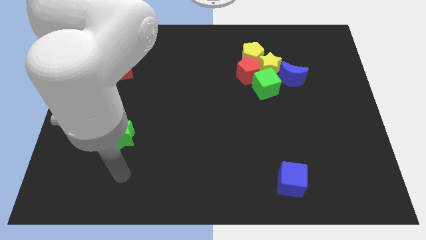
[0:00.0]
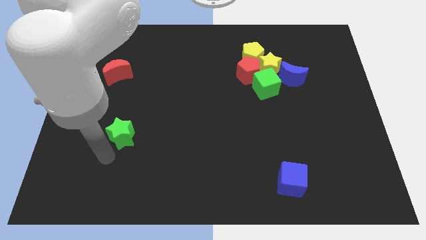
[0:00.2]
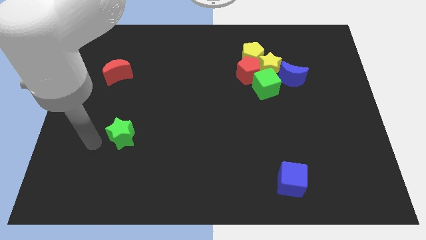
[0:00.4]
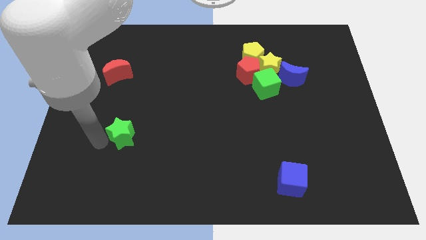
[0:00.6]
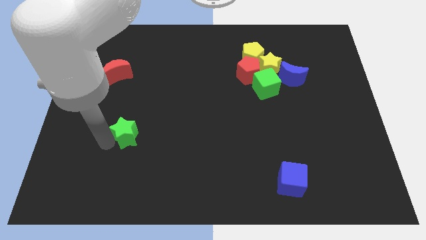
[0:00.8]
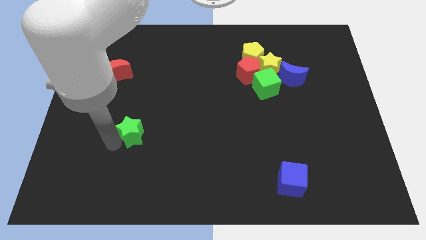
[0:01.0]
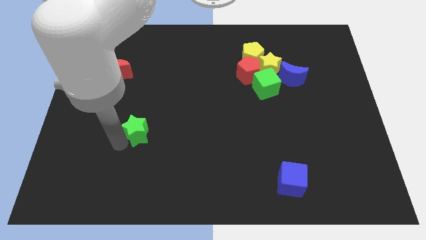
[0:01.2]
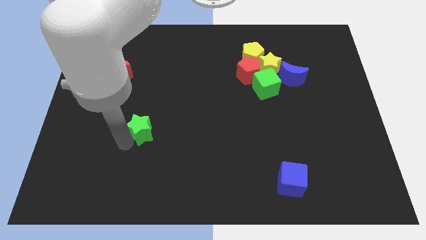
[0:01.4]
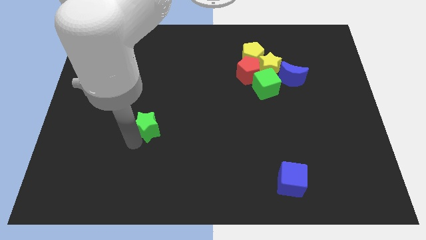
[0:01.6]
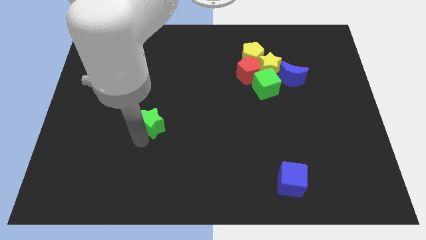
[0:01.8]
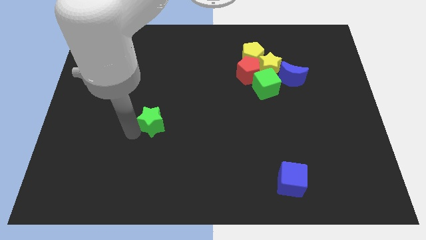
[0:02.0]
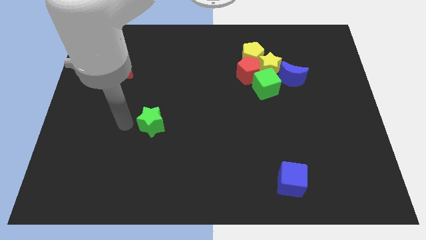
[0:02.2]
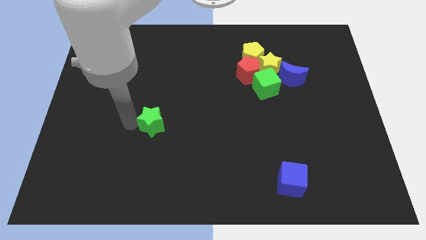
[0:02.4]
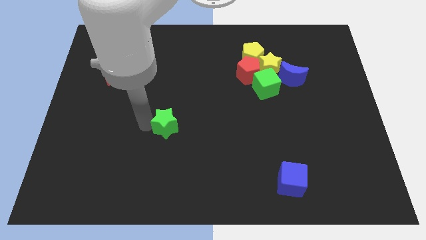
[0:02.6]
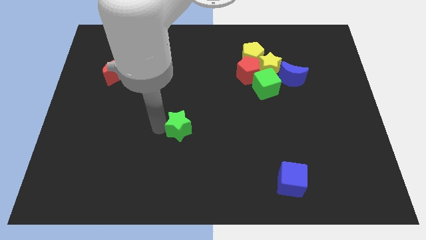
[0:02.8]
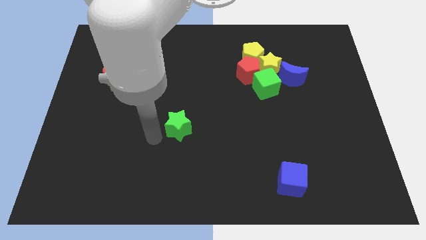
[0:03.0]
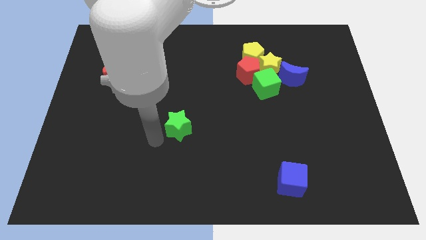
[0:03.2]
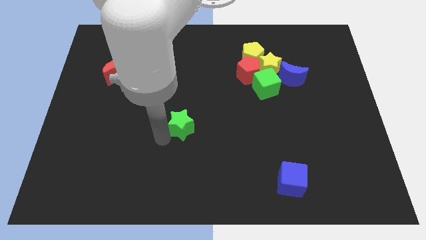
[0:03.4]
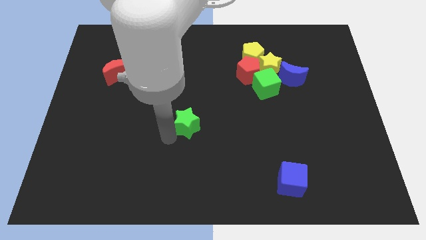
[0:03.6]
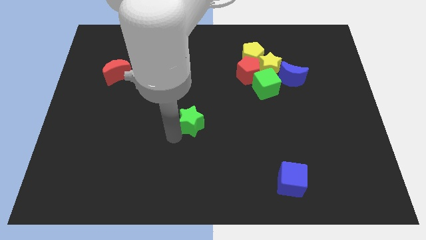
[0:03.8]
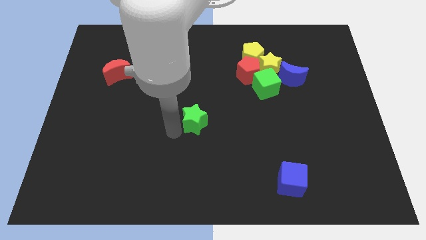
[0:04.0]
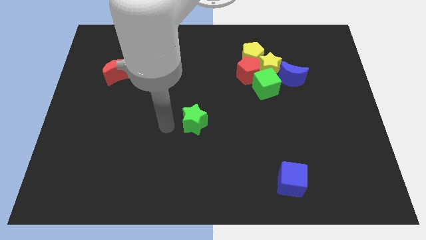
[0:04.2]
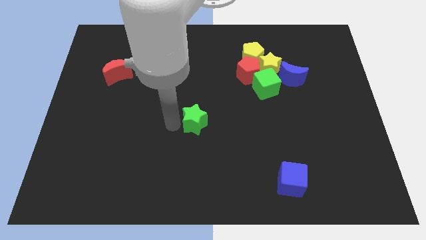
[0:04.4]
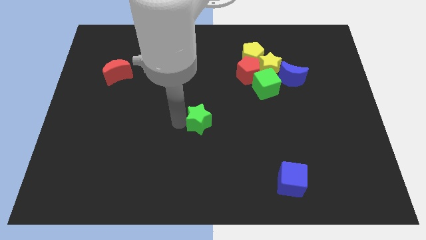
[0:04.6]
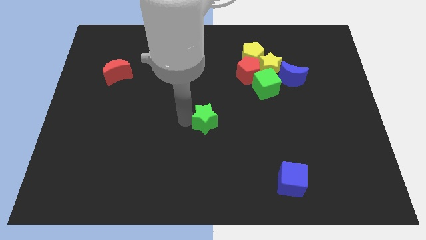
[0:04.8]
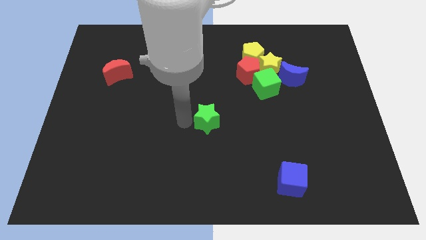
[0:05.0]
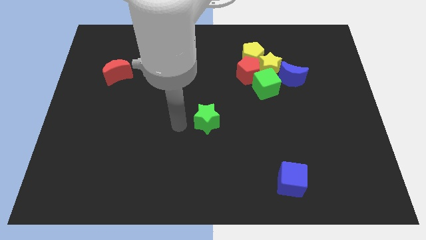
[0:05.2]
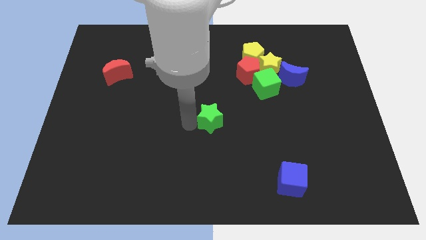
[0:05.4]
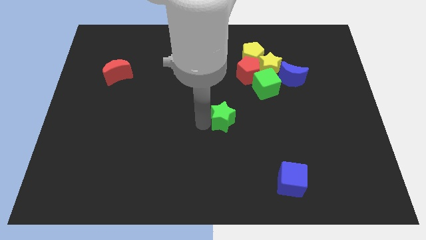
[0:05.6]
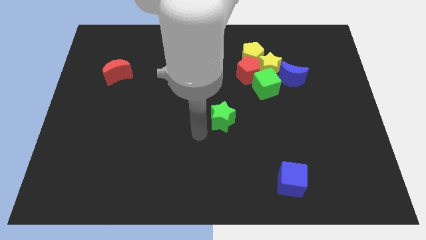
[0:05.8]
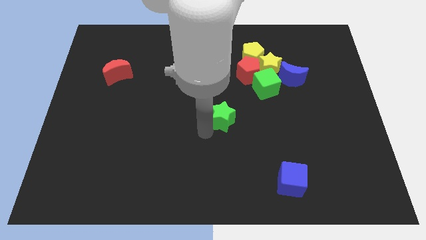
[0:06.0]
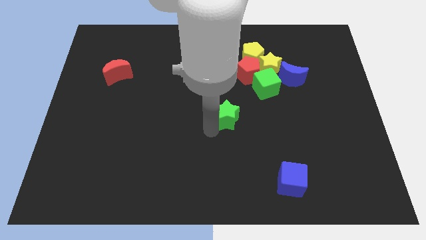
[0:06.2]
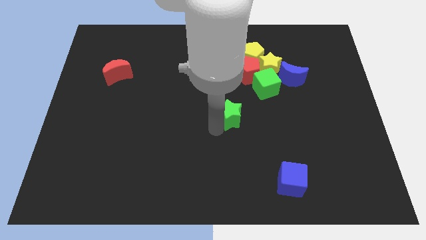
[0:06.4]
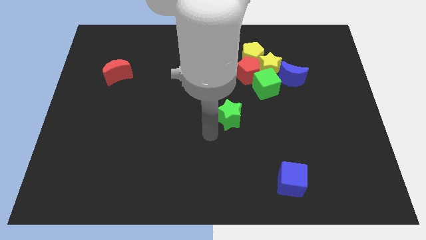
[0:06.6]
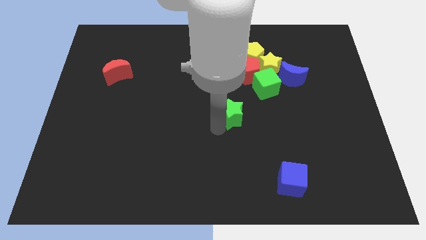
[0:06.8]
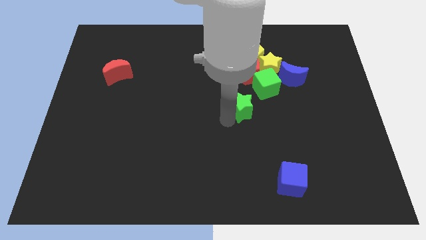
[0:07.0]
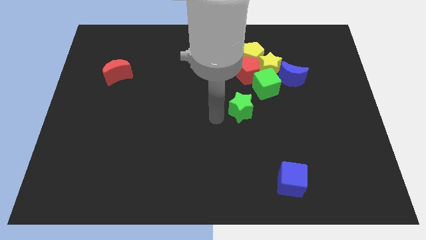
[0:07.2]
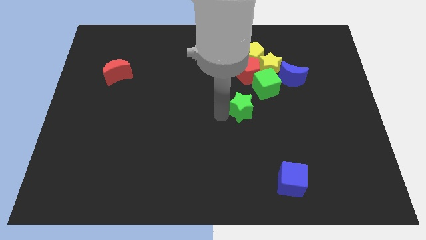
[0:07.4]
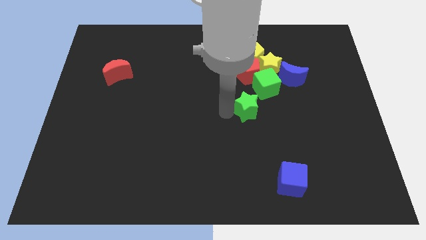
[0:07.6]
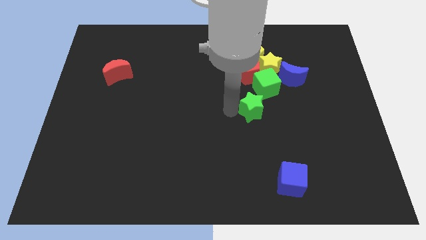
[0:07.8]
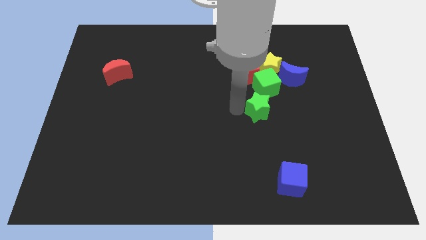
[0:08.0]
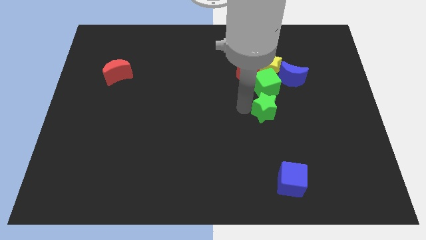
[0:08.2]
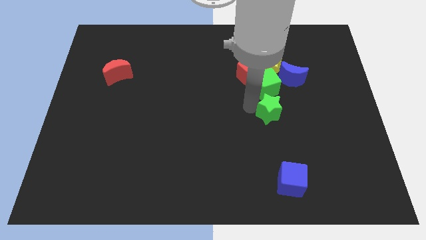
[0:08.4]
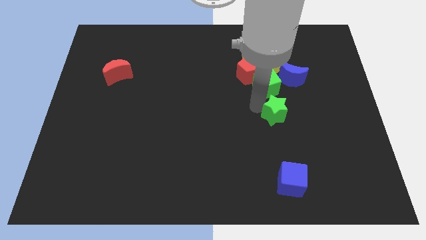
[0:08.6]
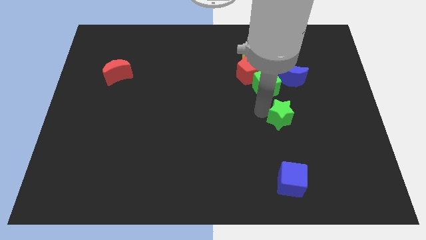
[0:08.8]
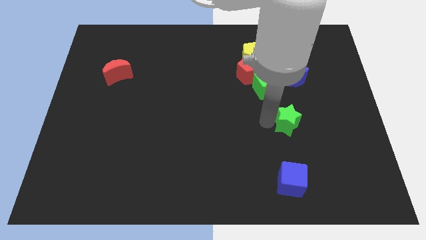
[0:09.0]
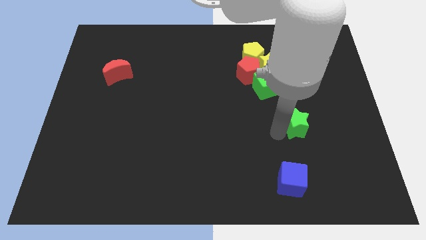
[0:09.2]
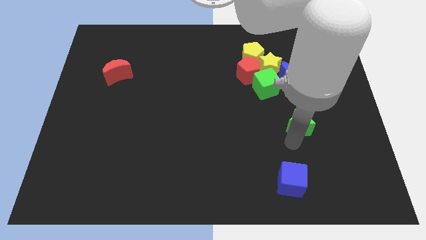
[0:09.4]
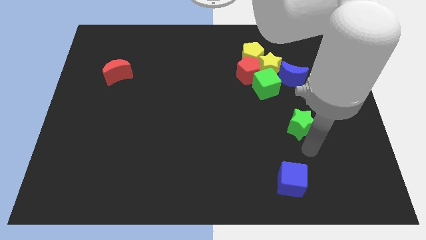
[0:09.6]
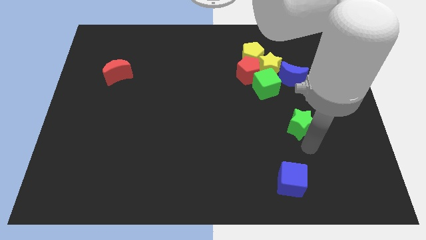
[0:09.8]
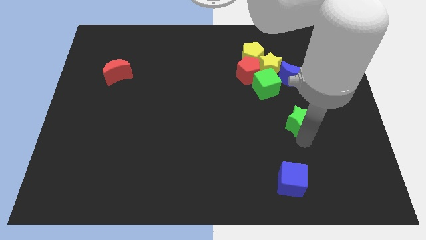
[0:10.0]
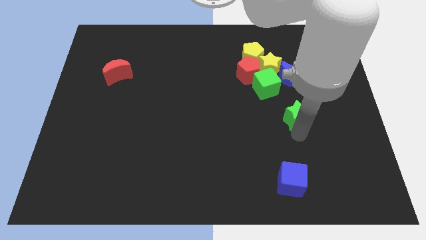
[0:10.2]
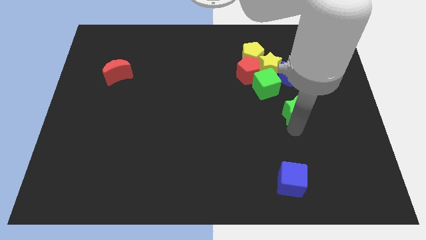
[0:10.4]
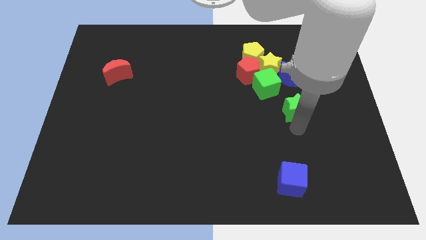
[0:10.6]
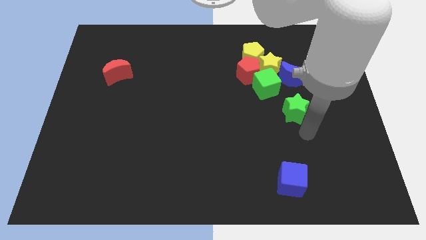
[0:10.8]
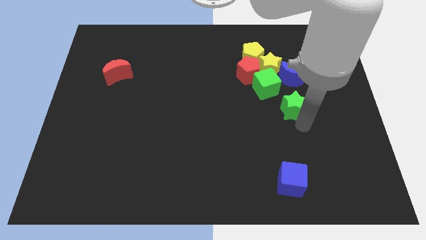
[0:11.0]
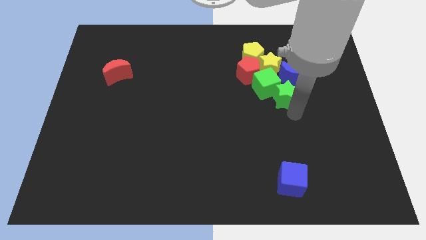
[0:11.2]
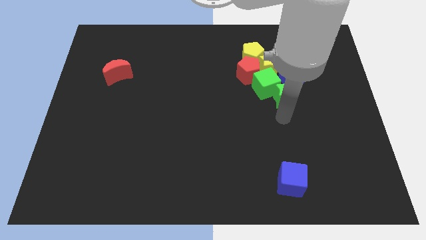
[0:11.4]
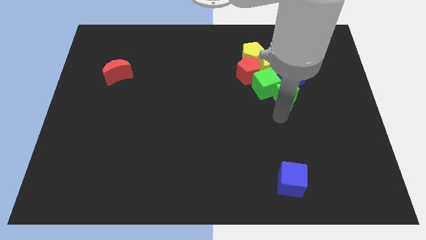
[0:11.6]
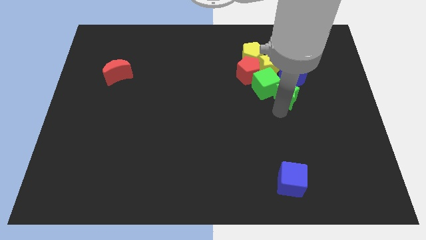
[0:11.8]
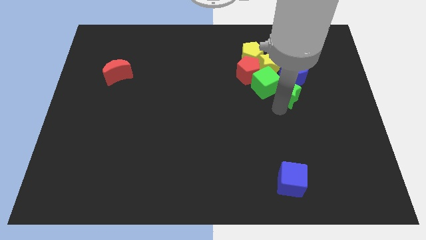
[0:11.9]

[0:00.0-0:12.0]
slide the green star next to the blue moon

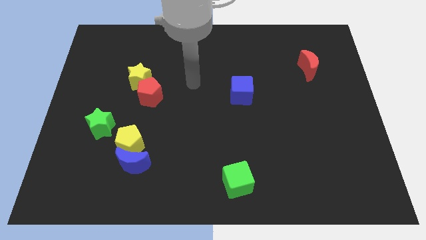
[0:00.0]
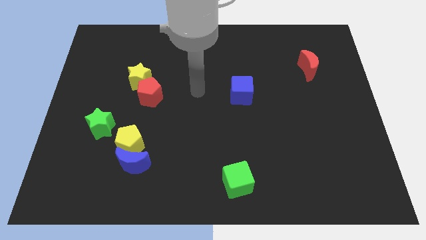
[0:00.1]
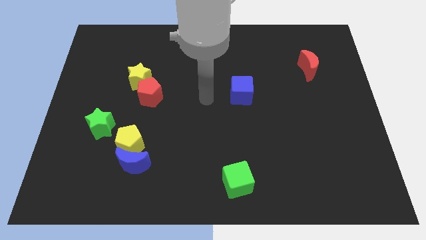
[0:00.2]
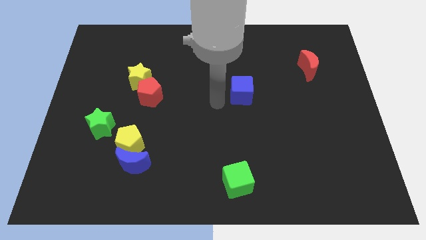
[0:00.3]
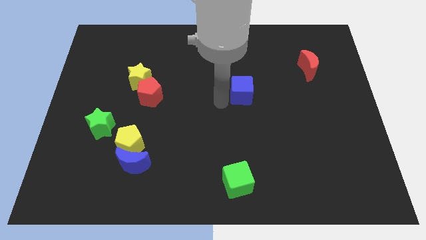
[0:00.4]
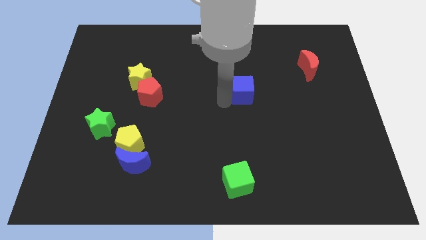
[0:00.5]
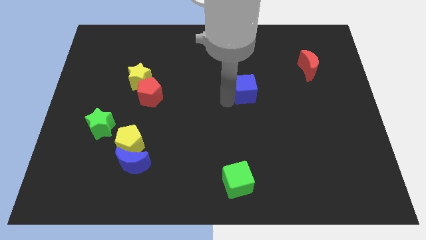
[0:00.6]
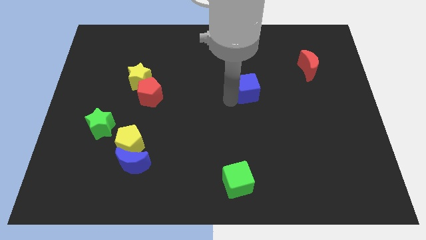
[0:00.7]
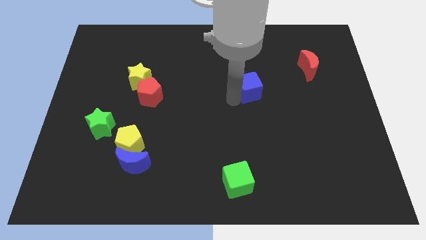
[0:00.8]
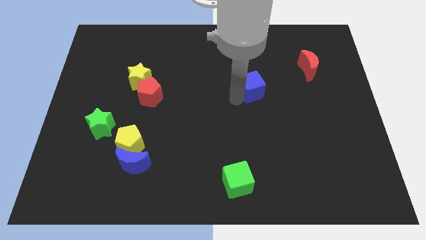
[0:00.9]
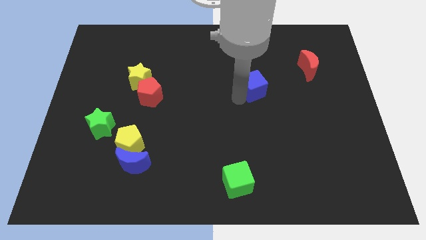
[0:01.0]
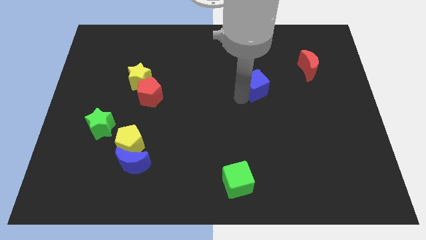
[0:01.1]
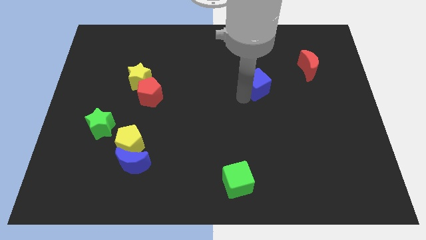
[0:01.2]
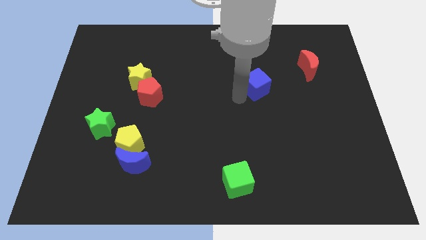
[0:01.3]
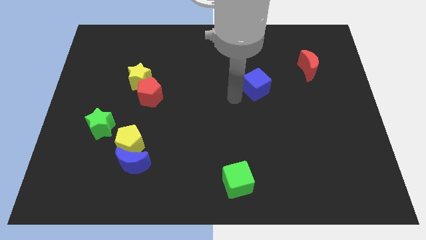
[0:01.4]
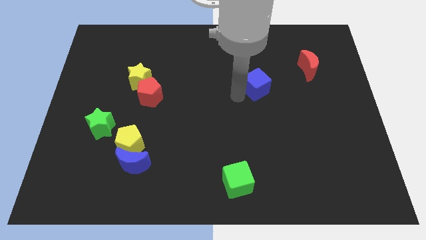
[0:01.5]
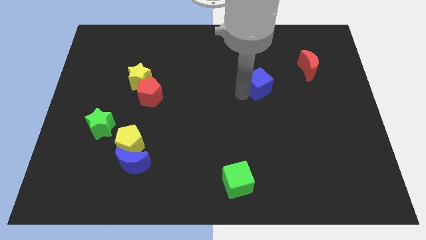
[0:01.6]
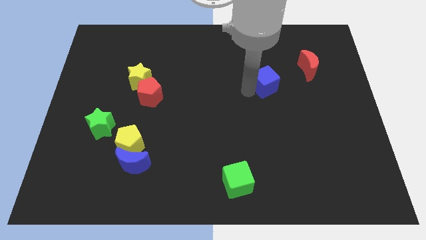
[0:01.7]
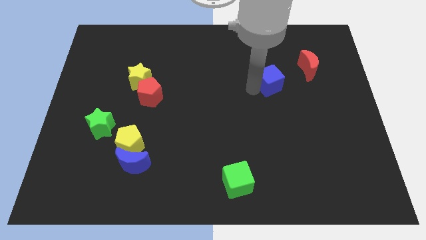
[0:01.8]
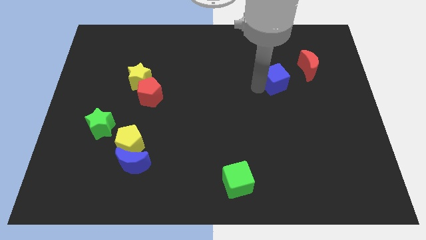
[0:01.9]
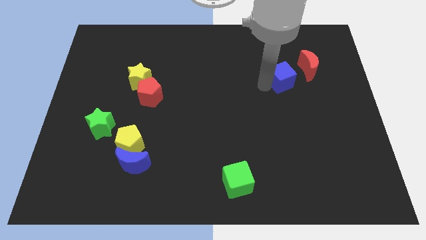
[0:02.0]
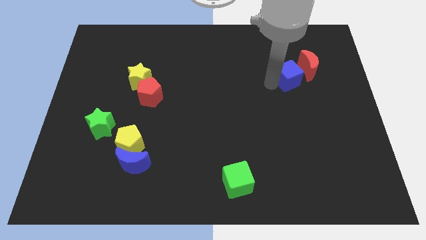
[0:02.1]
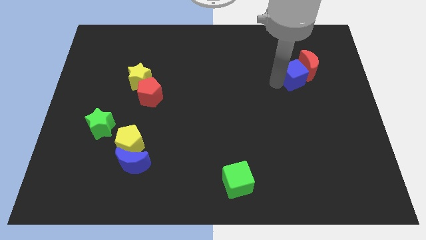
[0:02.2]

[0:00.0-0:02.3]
push the blue cube towards the red moon
